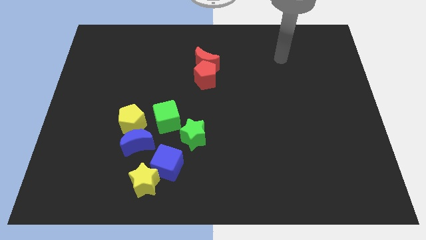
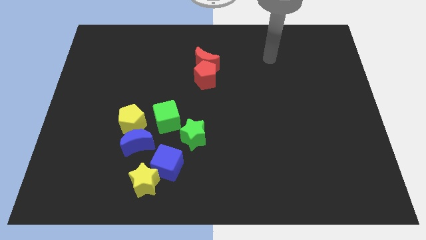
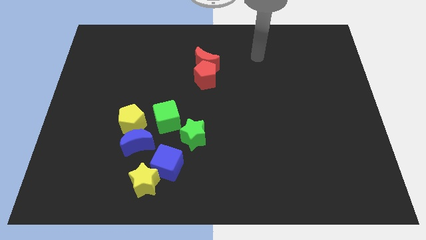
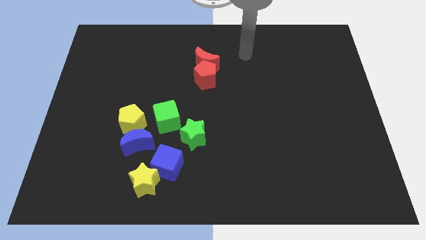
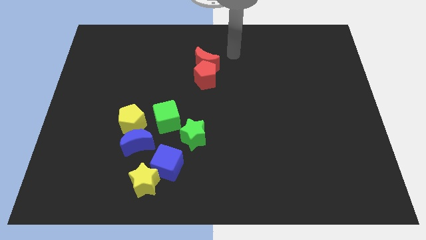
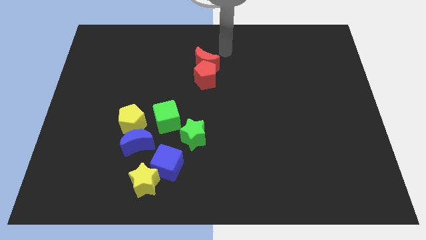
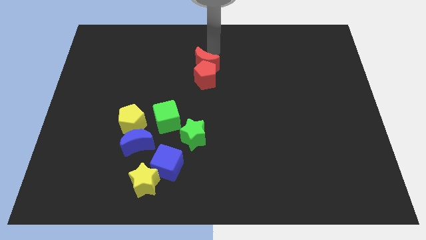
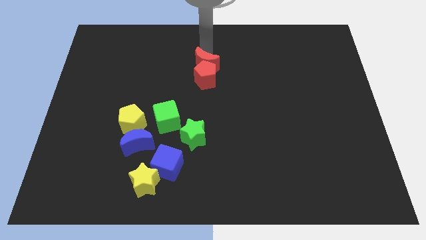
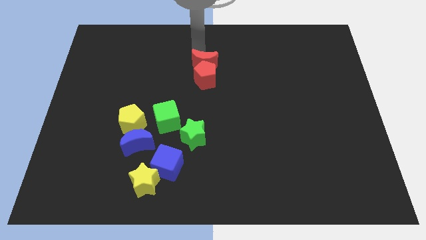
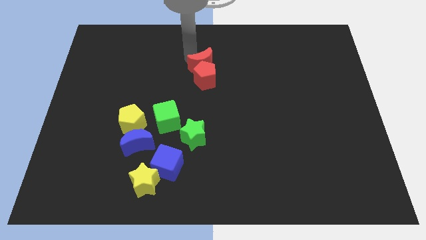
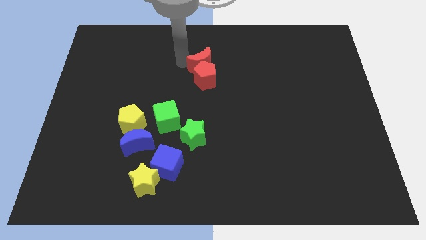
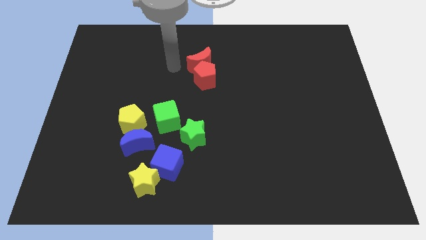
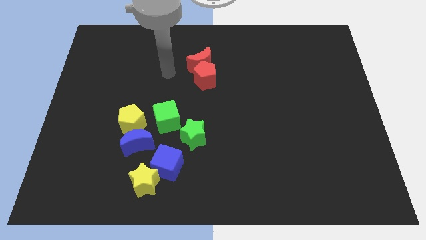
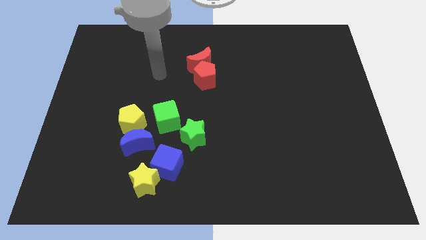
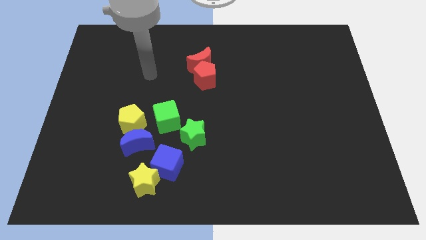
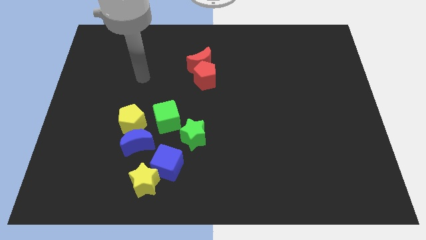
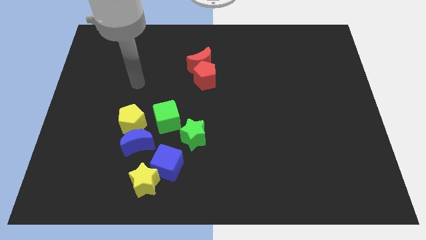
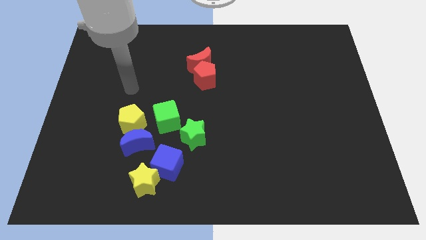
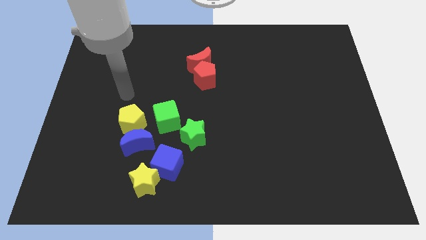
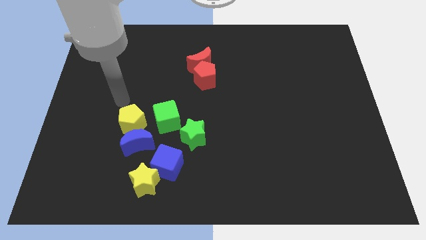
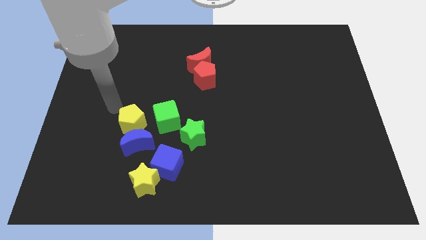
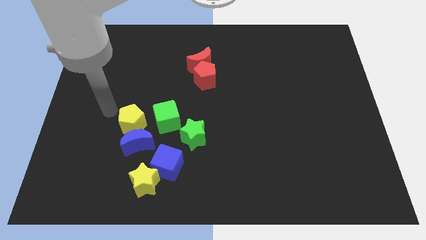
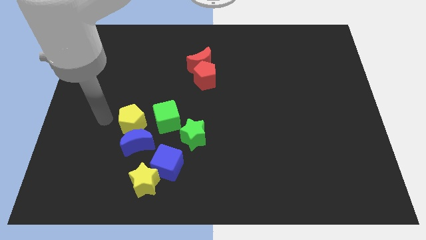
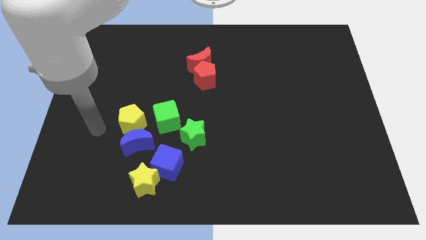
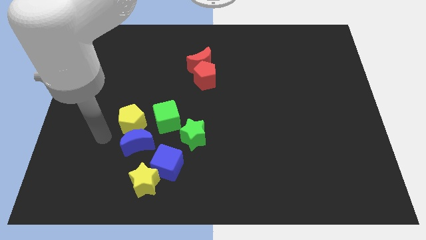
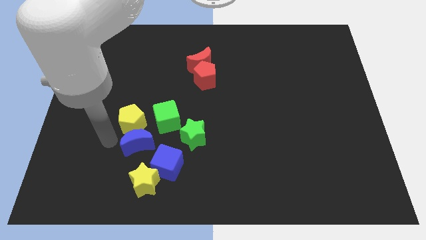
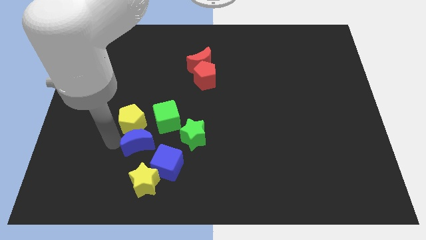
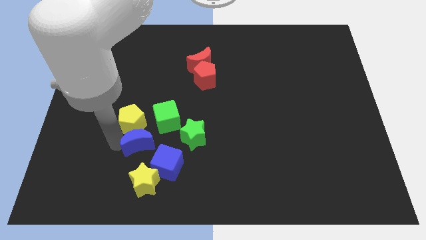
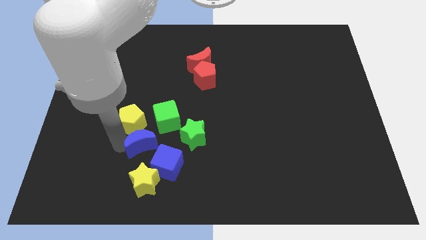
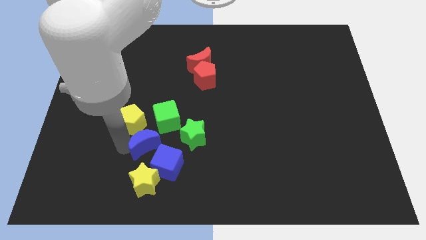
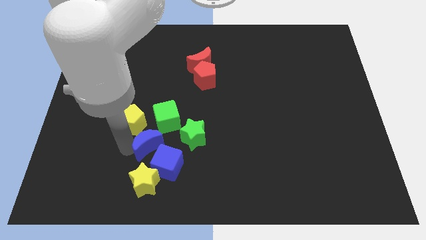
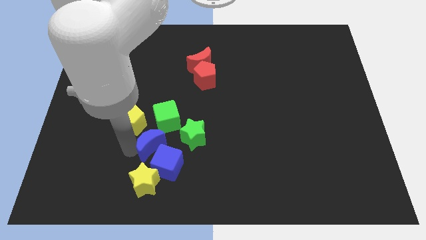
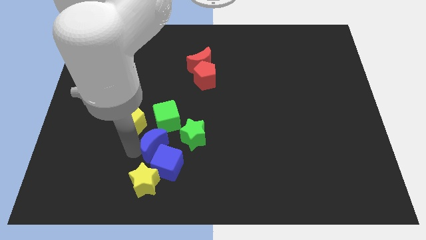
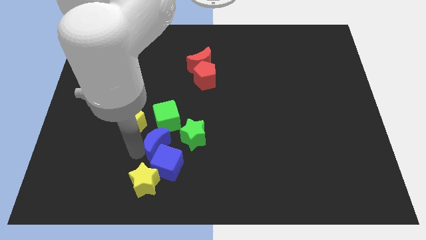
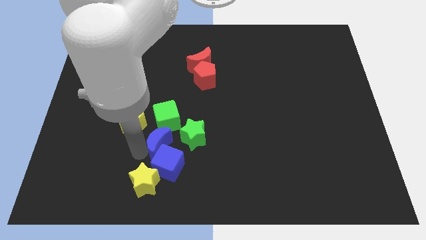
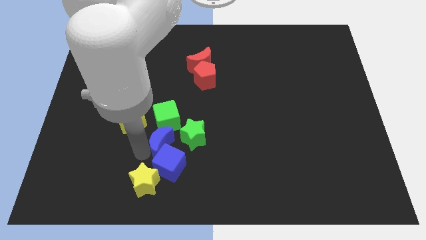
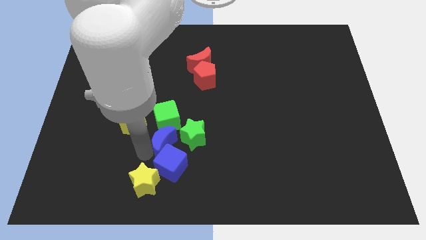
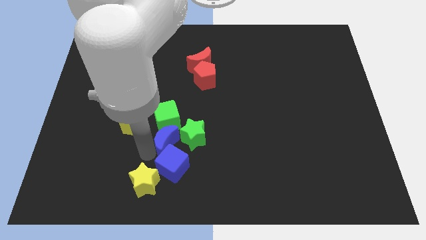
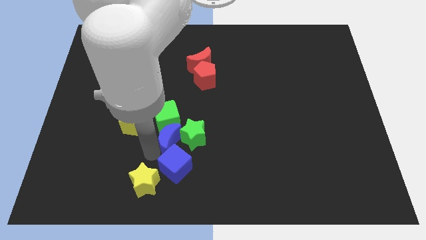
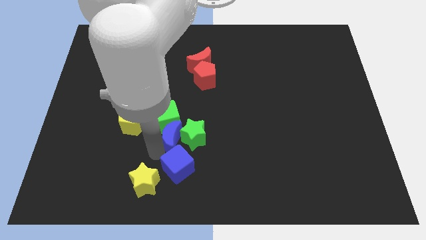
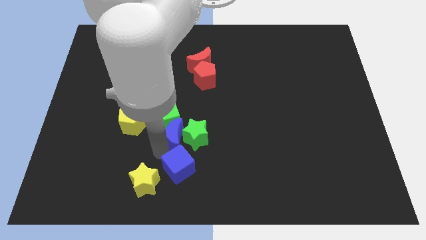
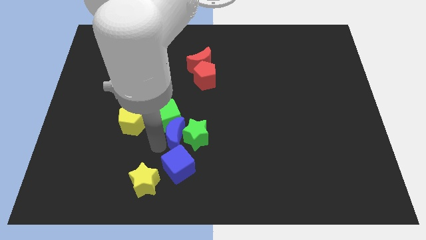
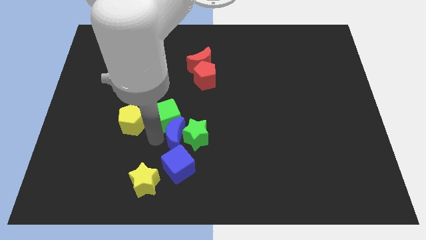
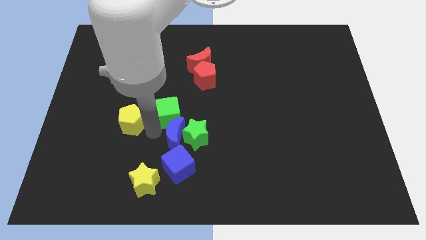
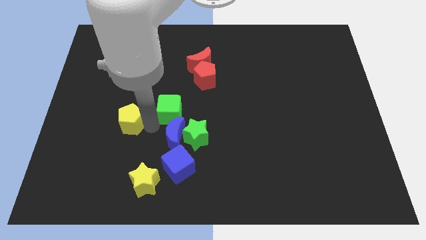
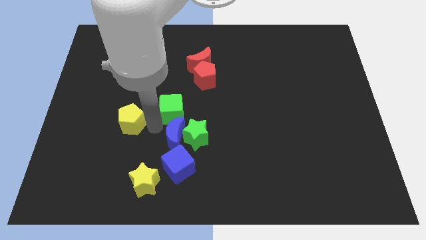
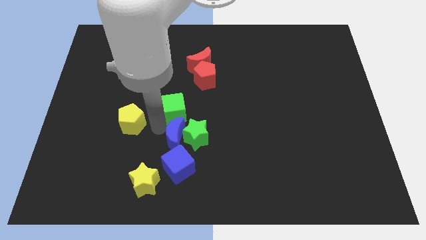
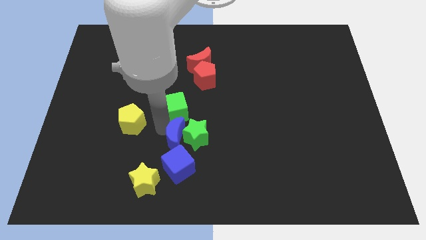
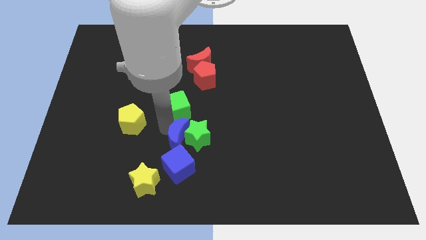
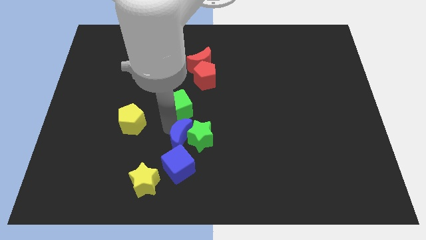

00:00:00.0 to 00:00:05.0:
move the blue moon to the middle of the board

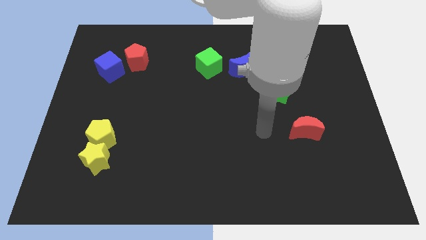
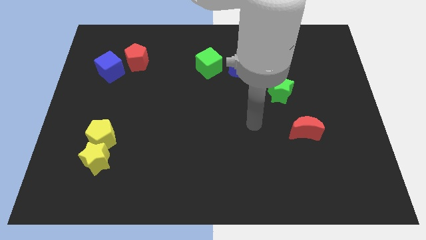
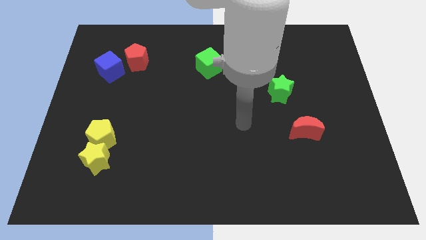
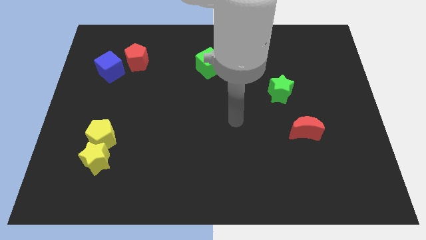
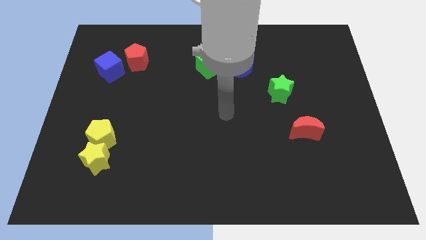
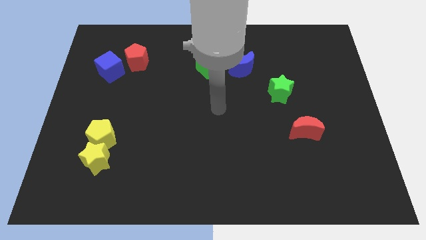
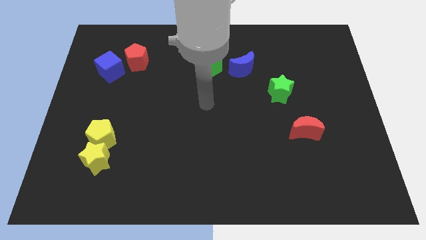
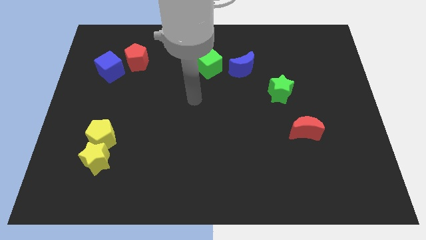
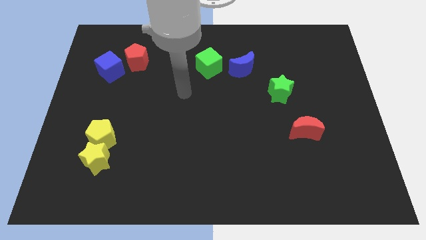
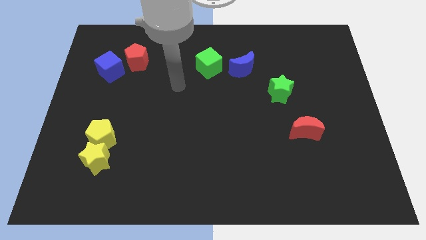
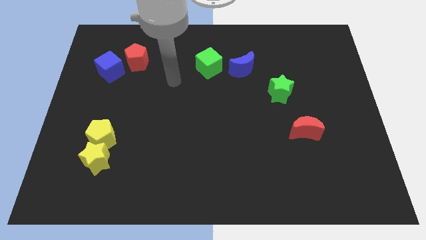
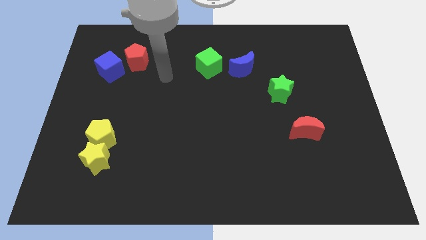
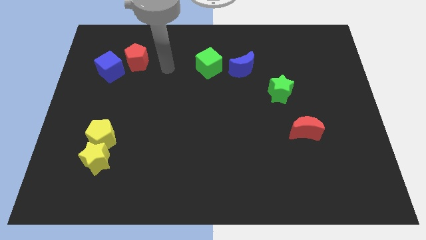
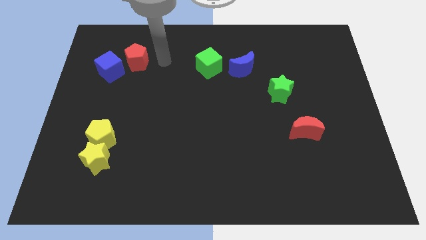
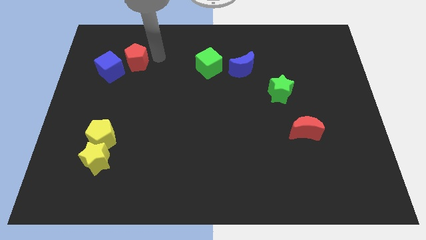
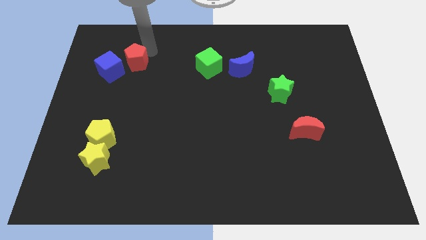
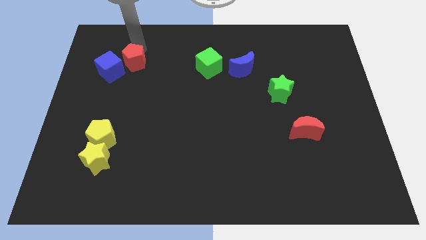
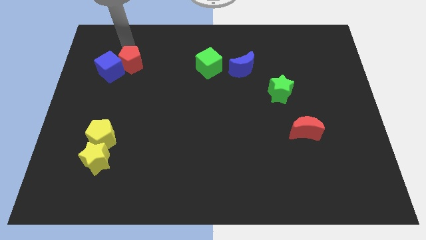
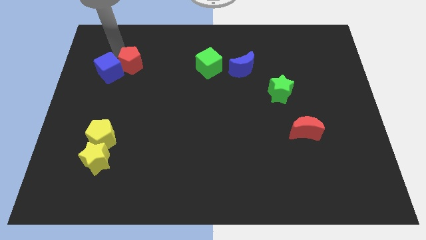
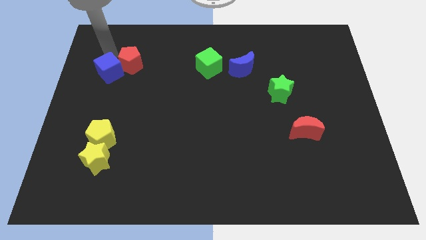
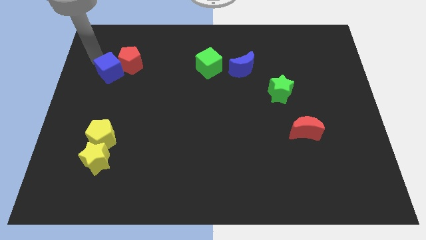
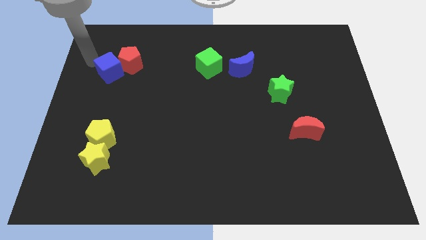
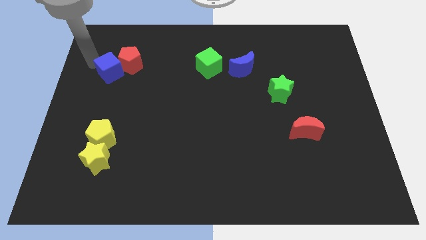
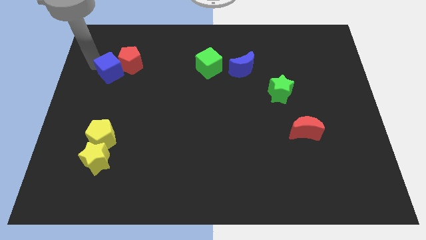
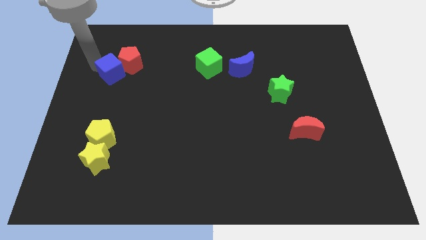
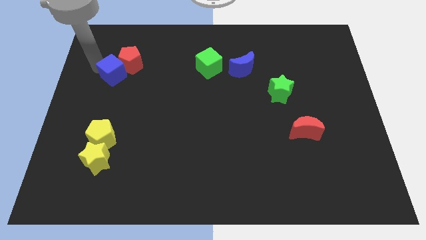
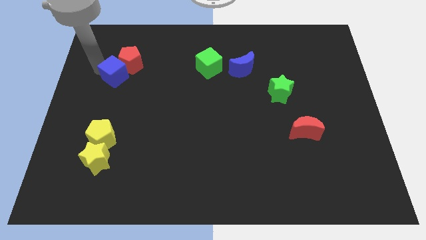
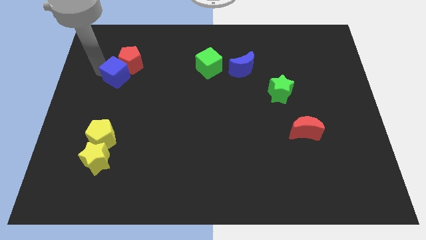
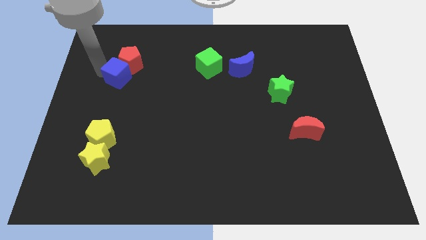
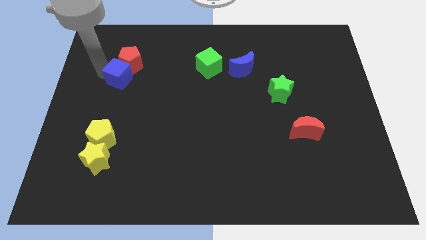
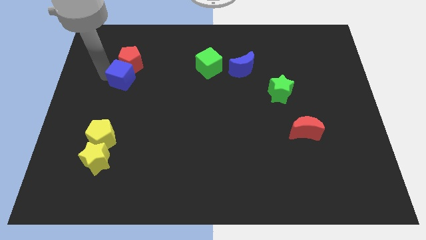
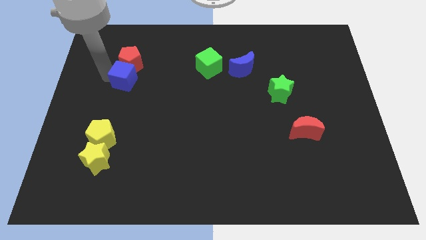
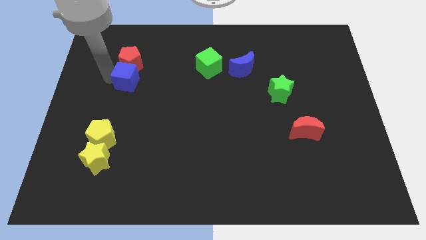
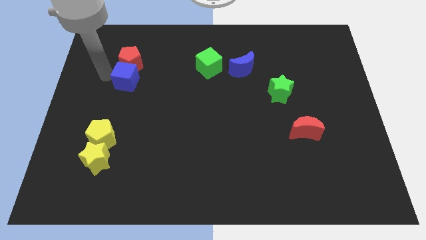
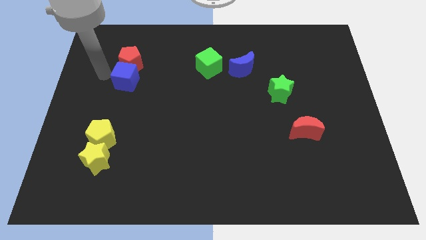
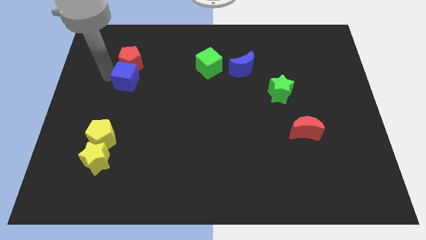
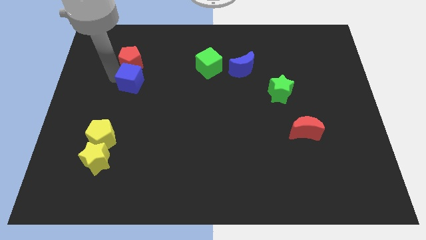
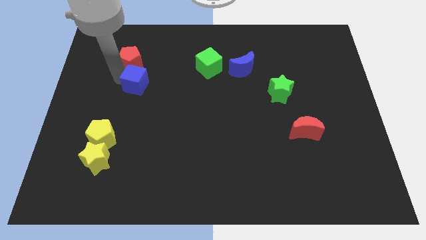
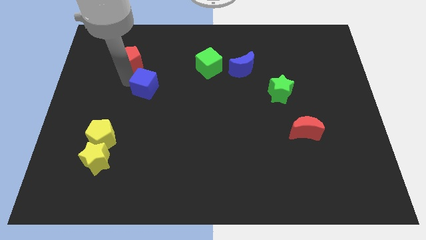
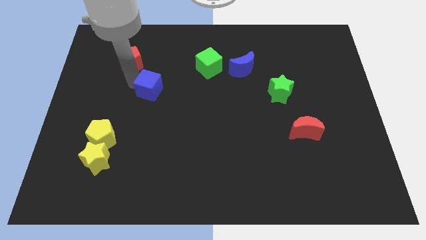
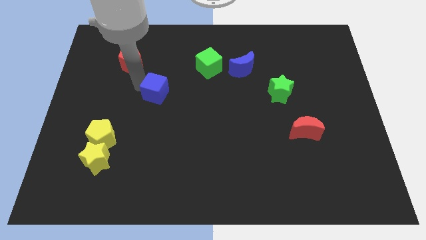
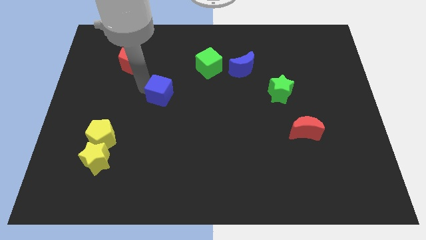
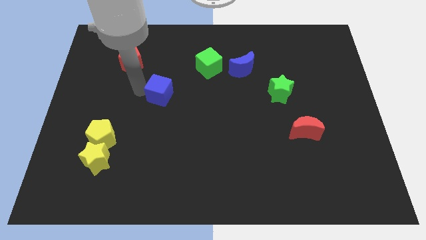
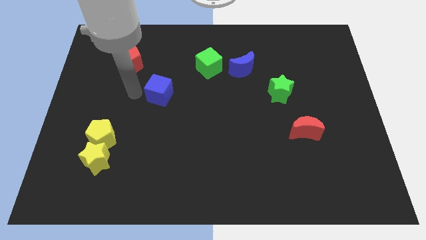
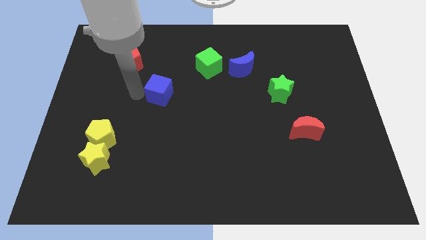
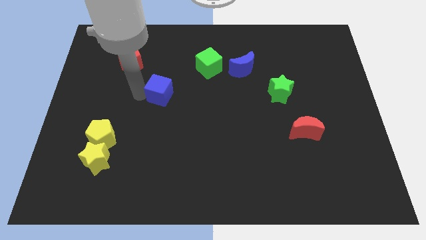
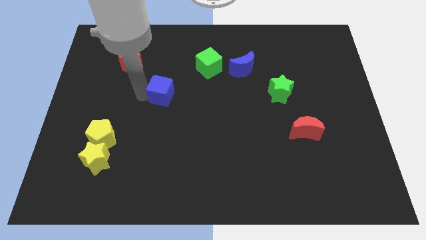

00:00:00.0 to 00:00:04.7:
push the blue cube to the center
